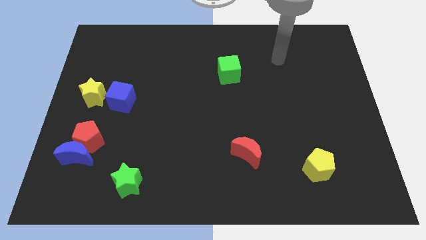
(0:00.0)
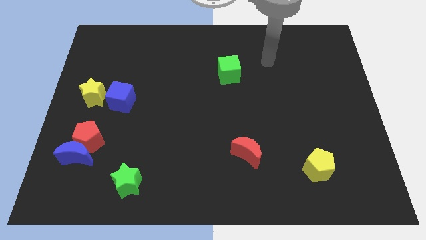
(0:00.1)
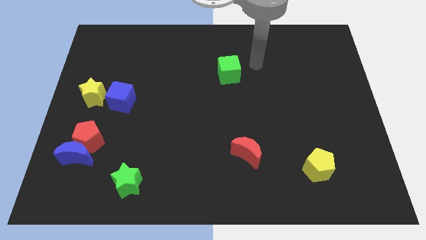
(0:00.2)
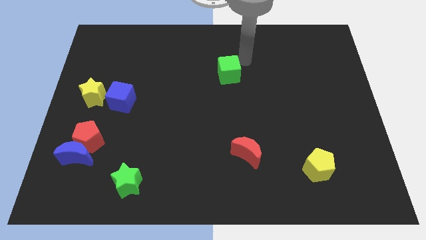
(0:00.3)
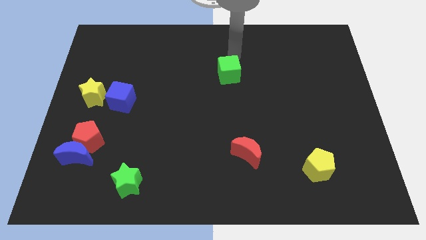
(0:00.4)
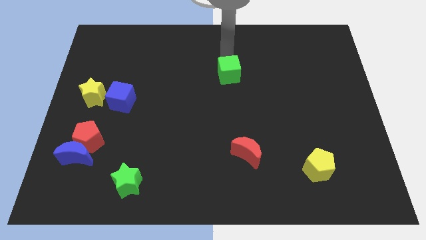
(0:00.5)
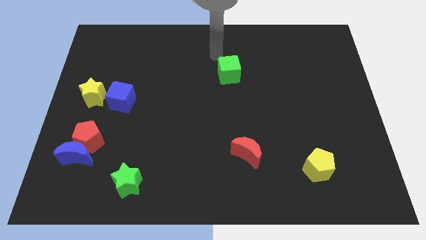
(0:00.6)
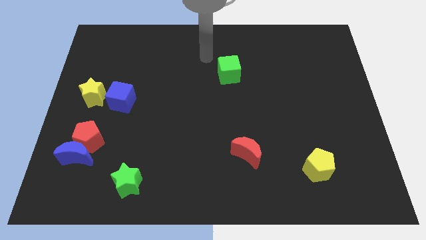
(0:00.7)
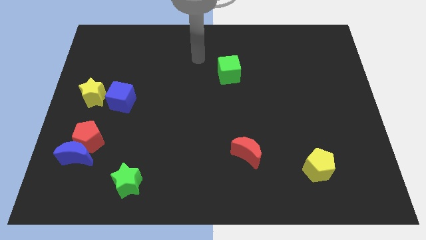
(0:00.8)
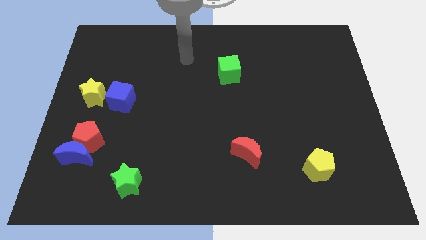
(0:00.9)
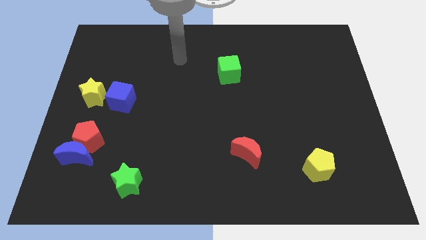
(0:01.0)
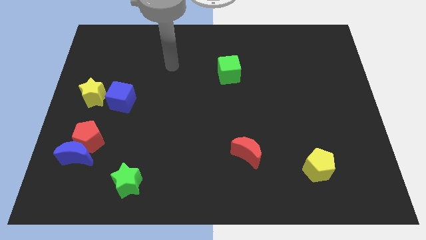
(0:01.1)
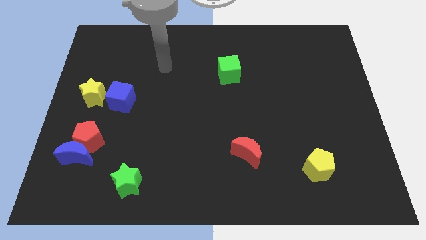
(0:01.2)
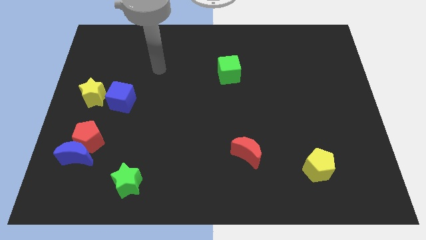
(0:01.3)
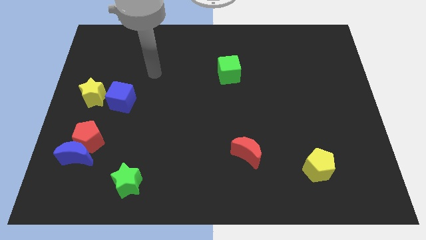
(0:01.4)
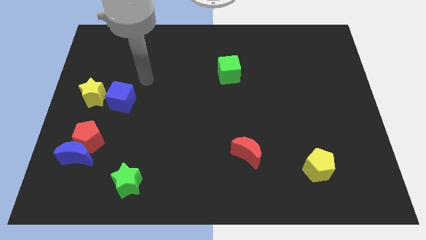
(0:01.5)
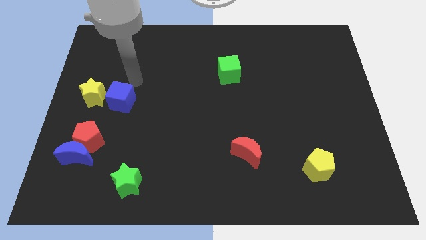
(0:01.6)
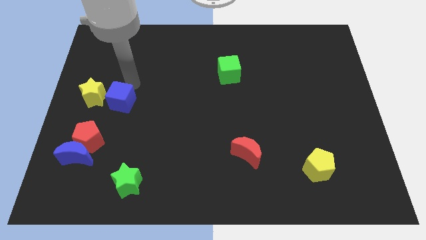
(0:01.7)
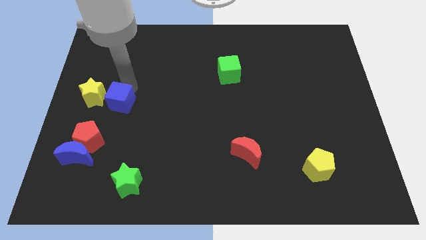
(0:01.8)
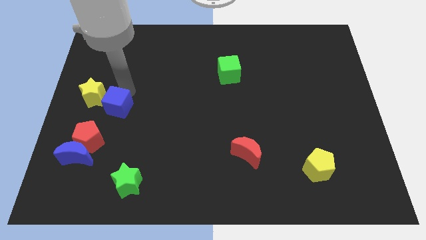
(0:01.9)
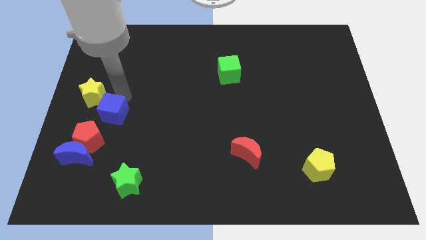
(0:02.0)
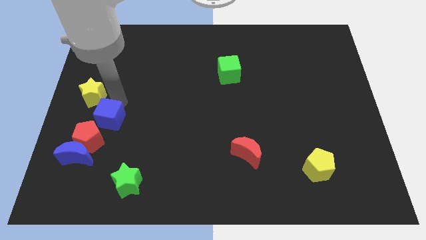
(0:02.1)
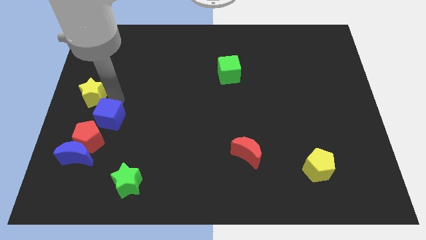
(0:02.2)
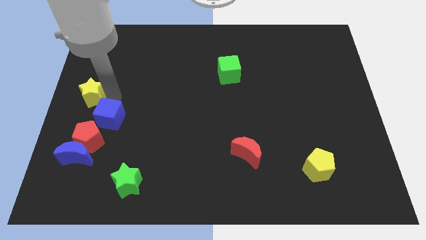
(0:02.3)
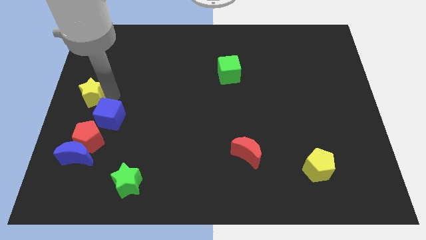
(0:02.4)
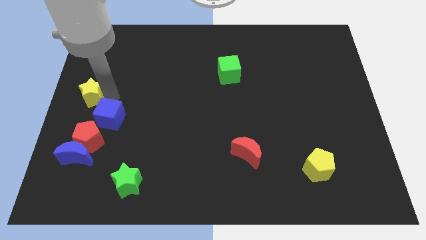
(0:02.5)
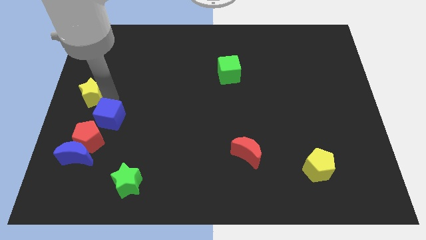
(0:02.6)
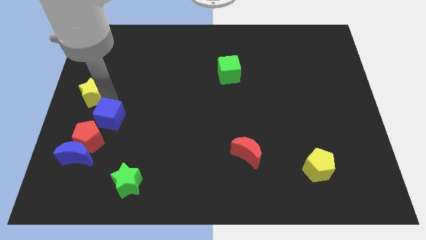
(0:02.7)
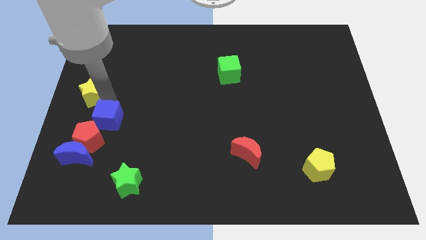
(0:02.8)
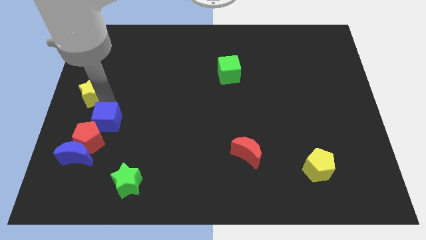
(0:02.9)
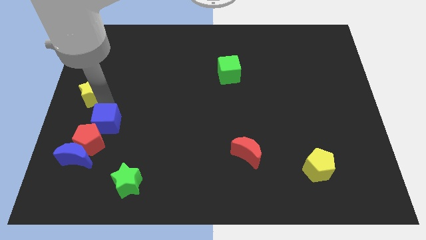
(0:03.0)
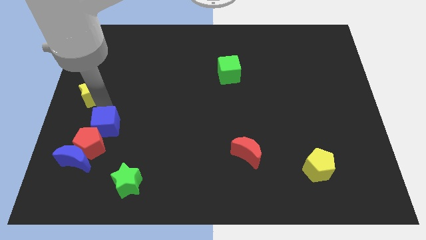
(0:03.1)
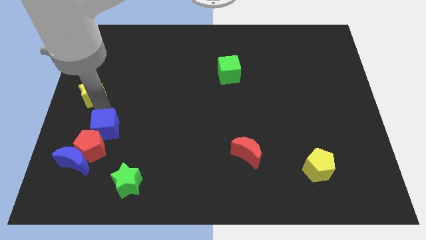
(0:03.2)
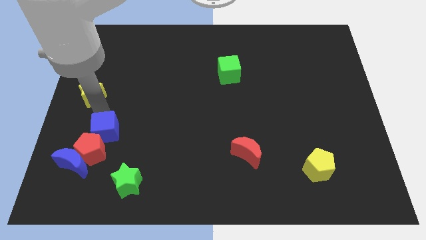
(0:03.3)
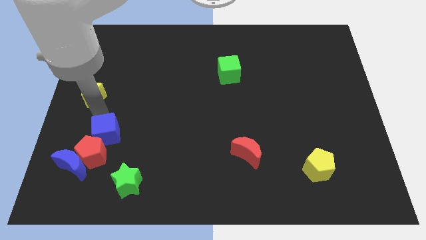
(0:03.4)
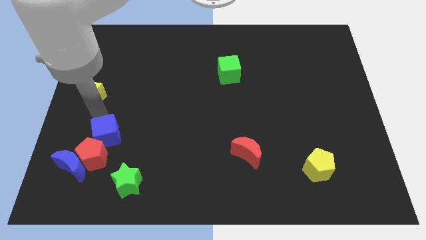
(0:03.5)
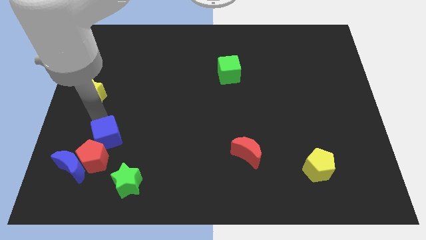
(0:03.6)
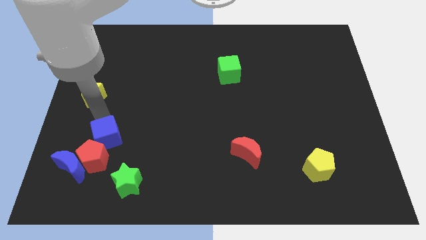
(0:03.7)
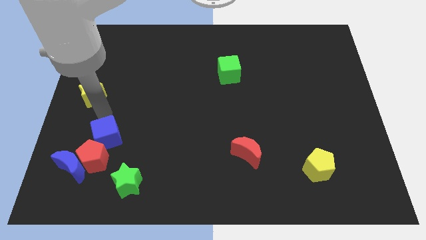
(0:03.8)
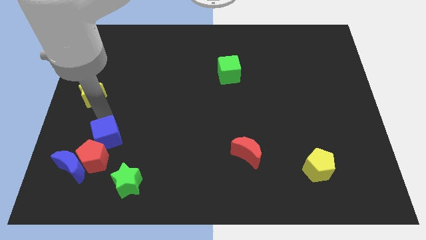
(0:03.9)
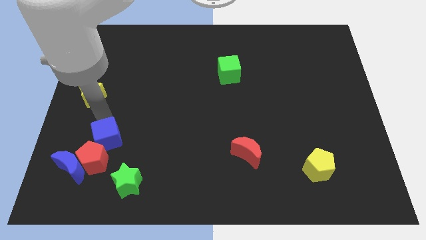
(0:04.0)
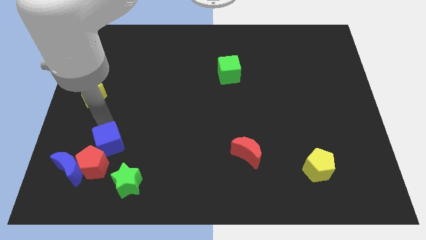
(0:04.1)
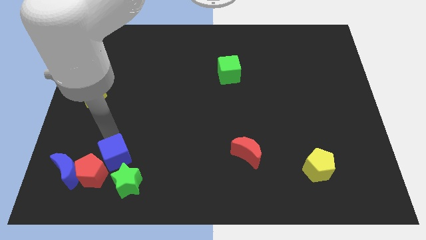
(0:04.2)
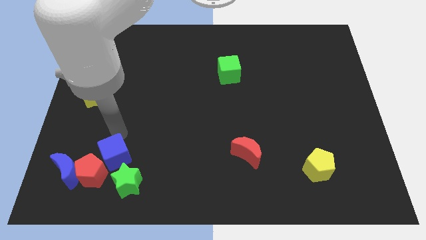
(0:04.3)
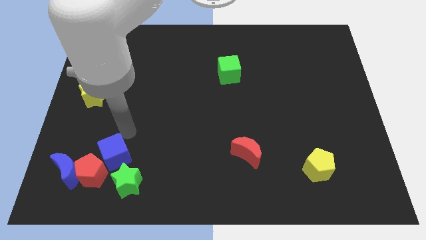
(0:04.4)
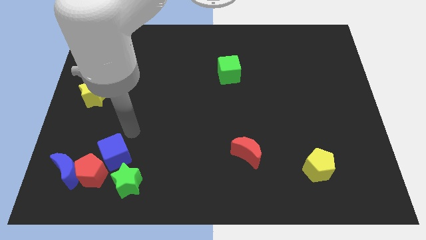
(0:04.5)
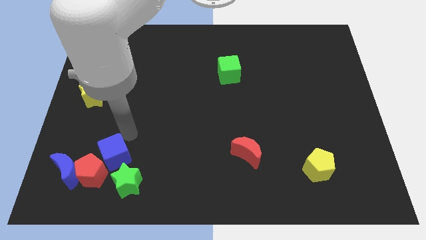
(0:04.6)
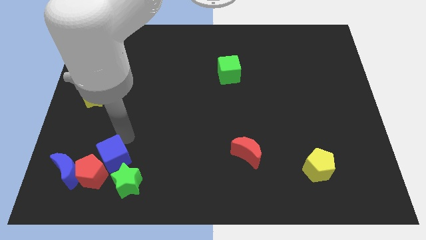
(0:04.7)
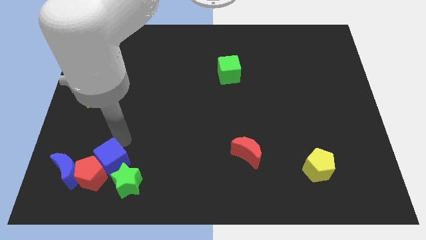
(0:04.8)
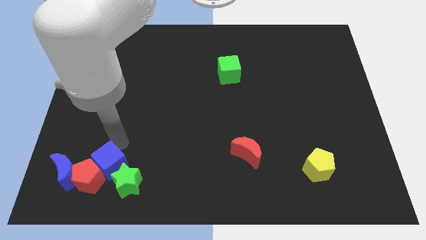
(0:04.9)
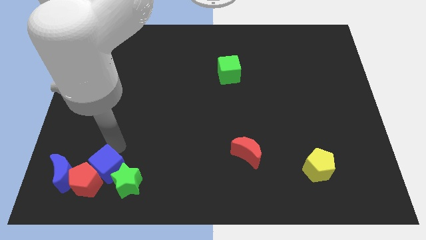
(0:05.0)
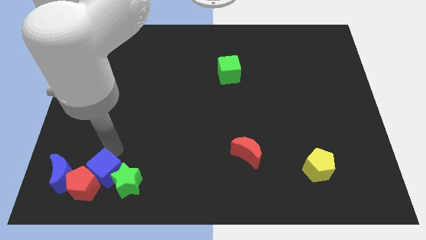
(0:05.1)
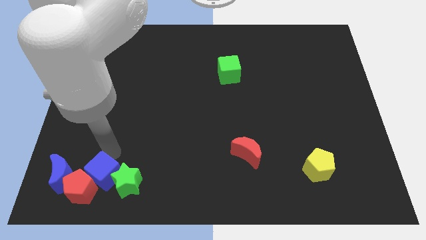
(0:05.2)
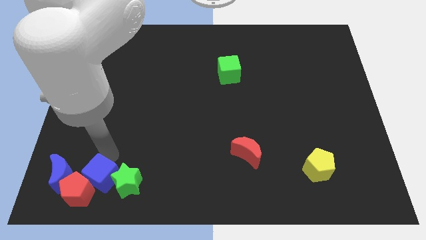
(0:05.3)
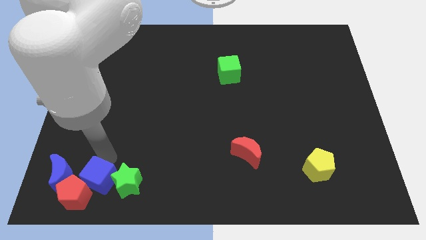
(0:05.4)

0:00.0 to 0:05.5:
put the blue cube to the bottom right side of the blue moon

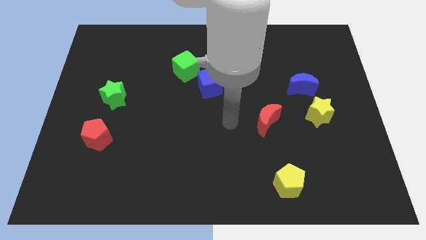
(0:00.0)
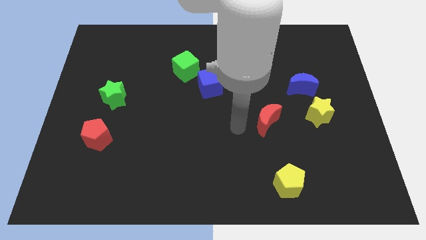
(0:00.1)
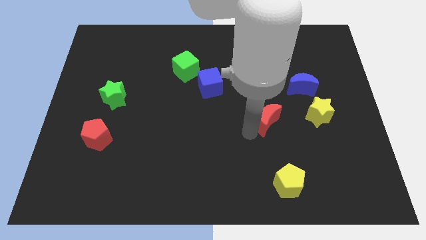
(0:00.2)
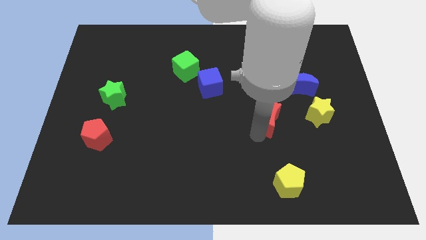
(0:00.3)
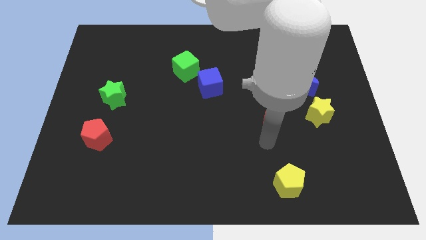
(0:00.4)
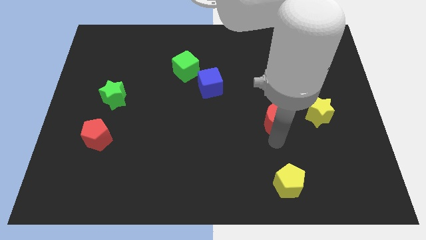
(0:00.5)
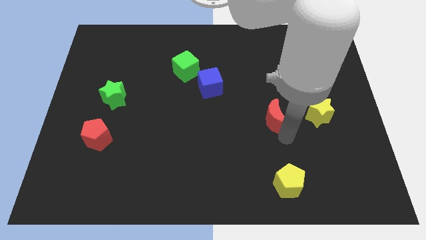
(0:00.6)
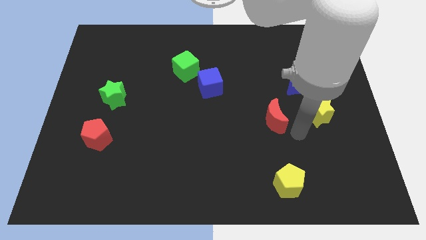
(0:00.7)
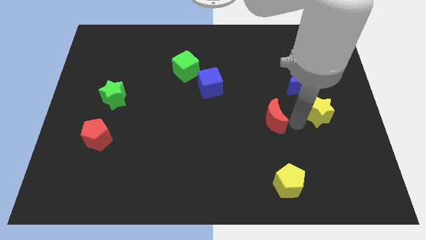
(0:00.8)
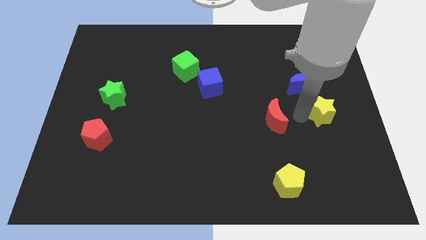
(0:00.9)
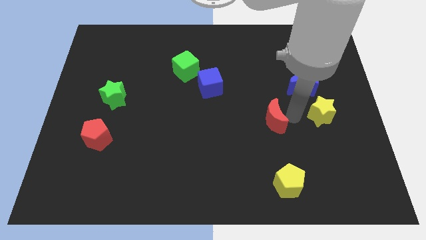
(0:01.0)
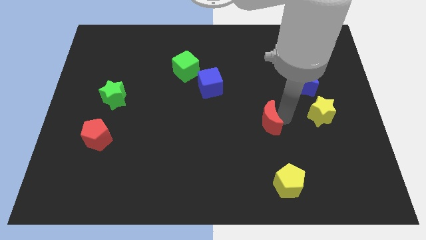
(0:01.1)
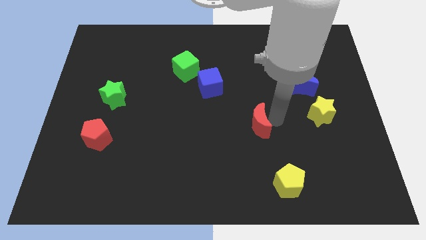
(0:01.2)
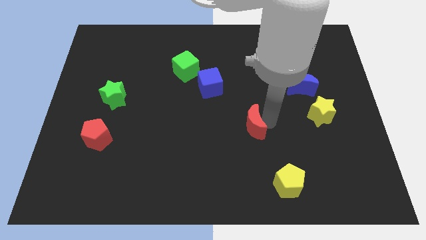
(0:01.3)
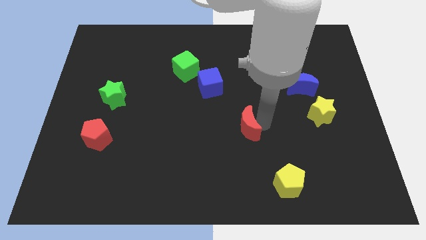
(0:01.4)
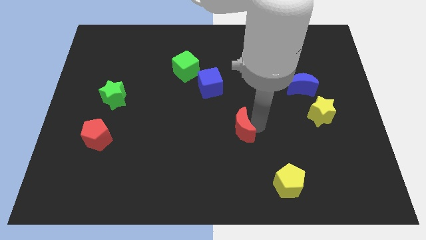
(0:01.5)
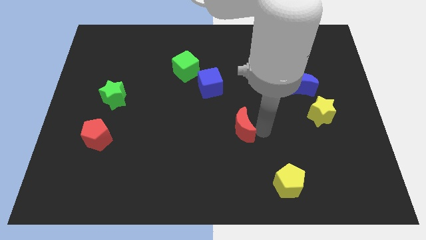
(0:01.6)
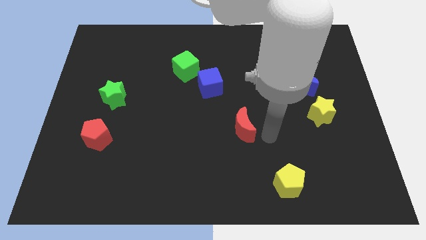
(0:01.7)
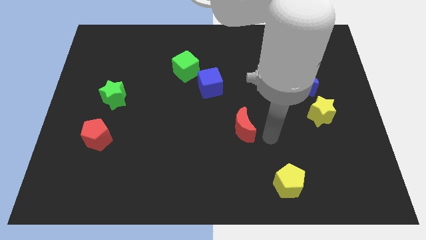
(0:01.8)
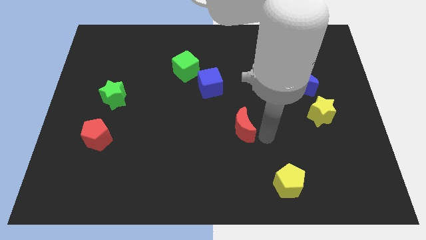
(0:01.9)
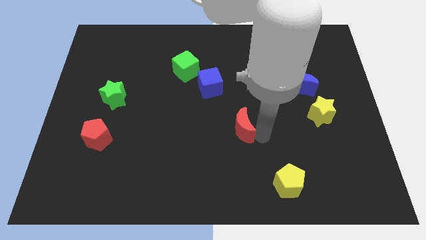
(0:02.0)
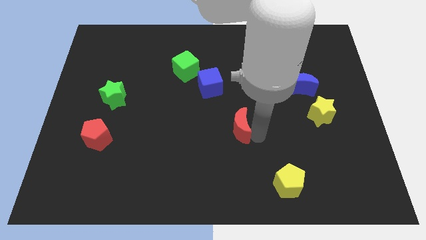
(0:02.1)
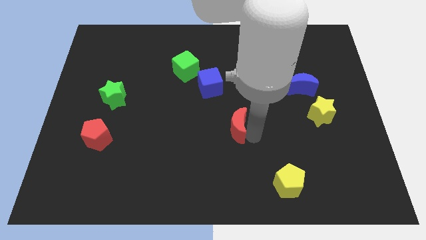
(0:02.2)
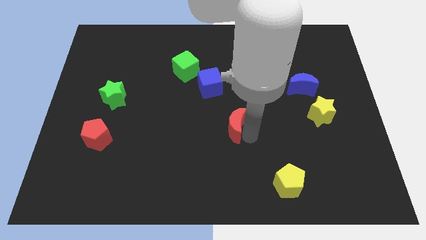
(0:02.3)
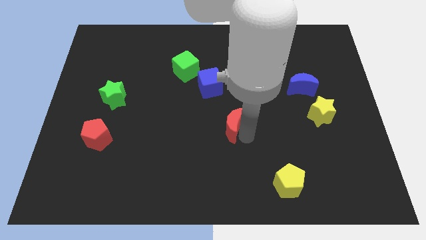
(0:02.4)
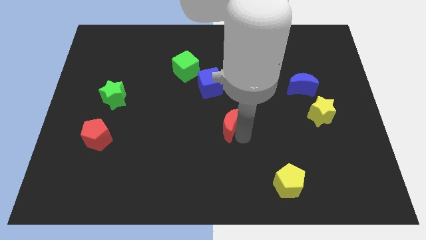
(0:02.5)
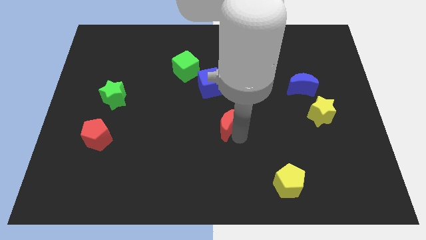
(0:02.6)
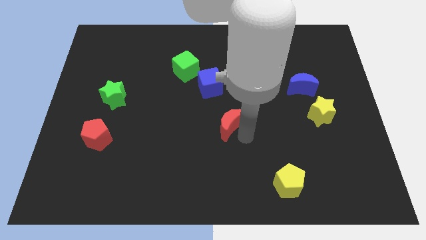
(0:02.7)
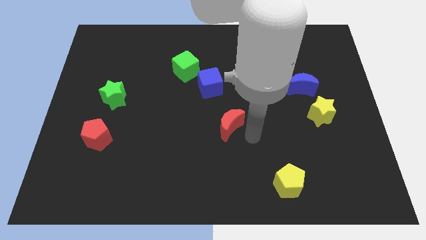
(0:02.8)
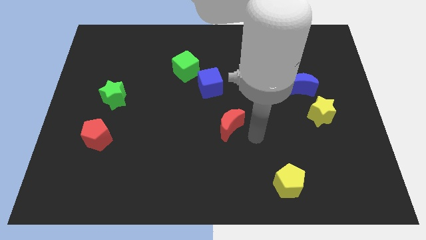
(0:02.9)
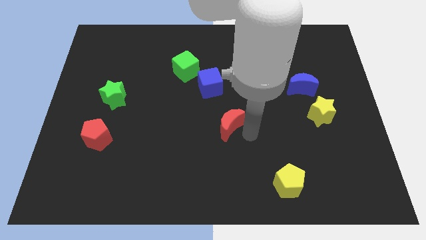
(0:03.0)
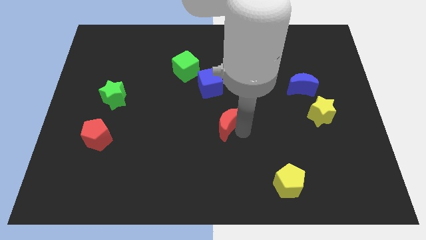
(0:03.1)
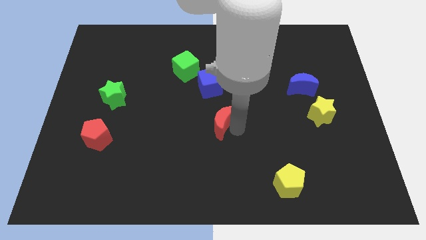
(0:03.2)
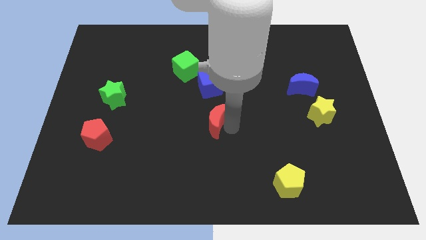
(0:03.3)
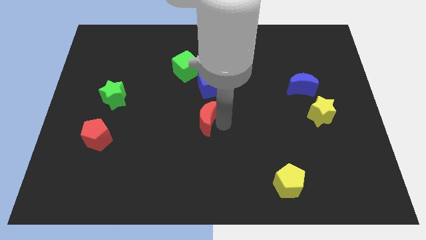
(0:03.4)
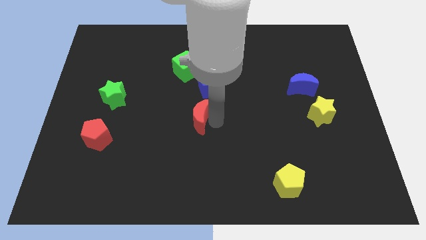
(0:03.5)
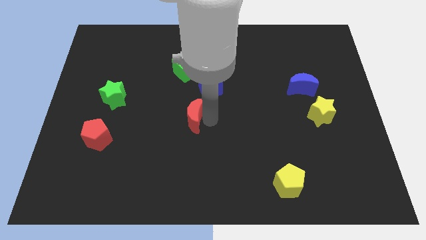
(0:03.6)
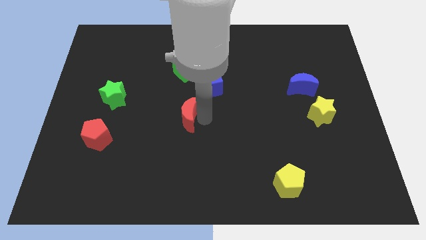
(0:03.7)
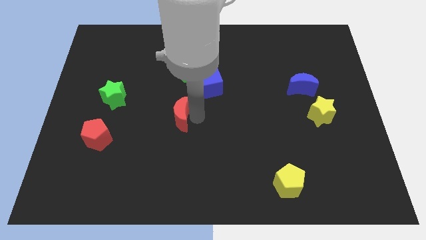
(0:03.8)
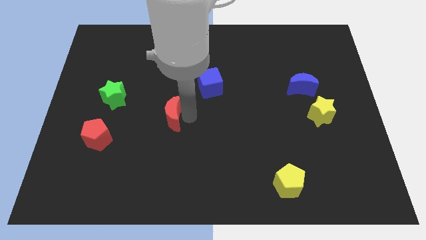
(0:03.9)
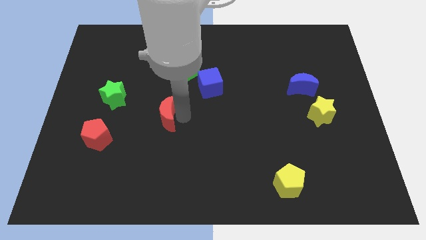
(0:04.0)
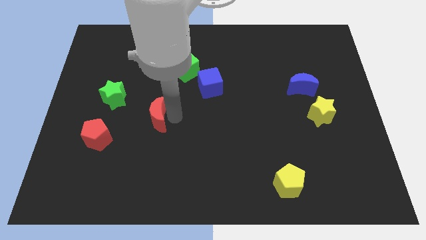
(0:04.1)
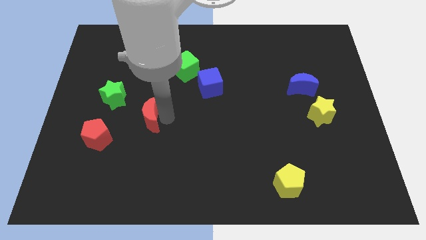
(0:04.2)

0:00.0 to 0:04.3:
slide the red moon diagonally down and to the right of the green star
